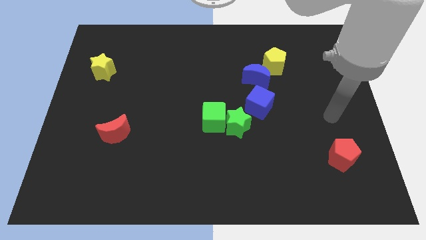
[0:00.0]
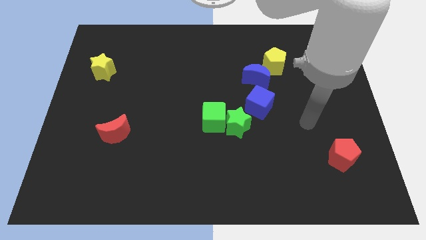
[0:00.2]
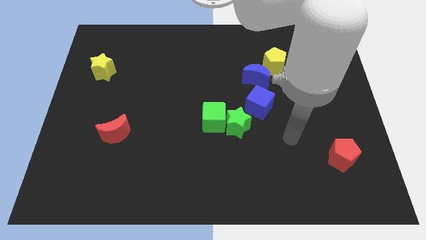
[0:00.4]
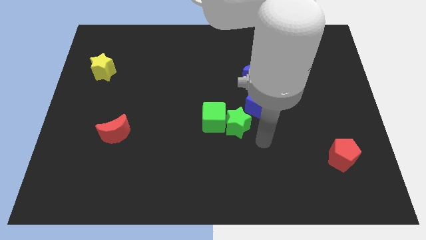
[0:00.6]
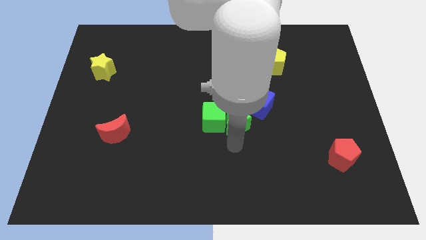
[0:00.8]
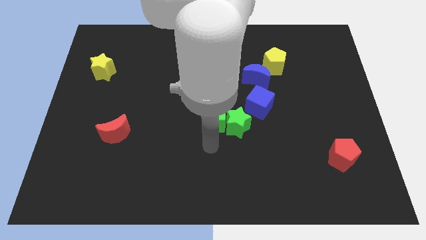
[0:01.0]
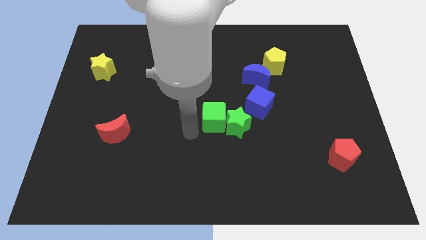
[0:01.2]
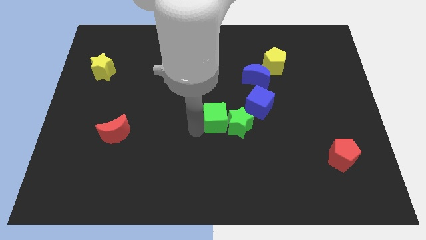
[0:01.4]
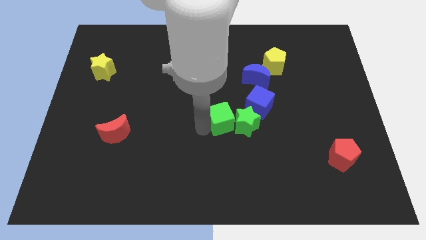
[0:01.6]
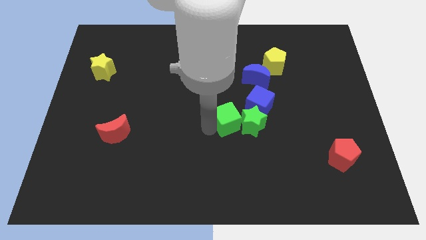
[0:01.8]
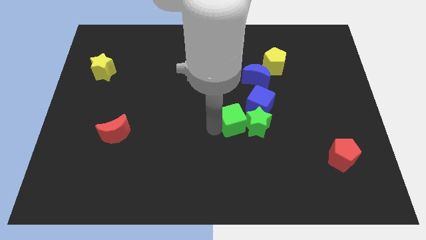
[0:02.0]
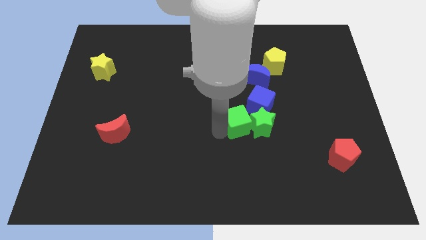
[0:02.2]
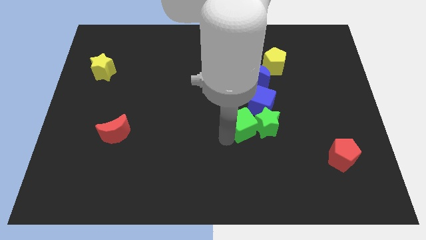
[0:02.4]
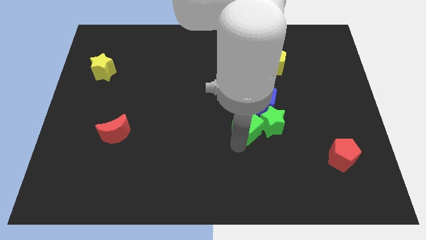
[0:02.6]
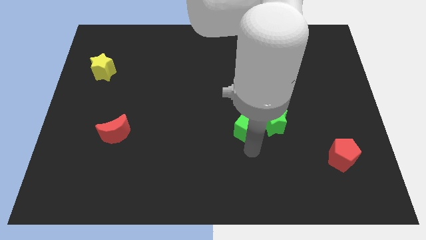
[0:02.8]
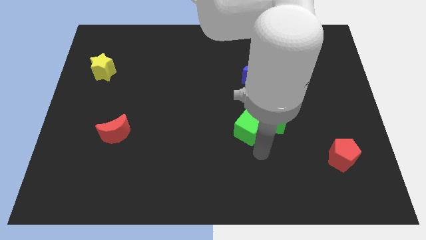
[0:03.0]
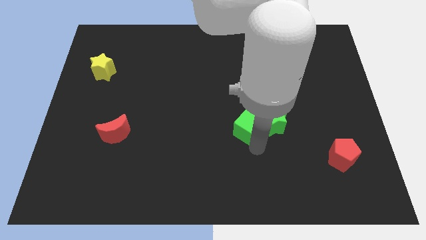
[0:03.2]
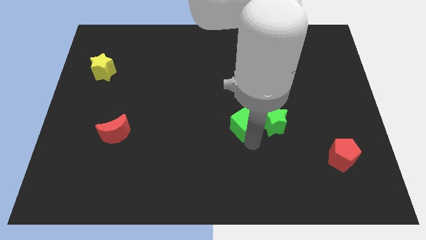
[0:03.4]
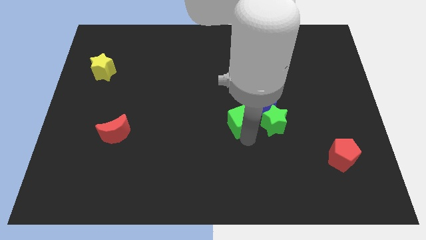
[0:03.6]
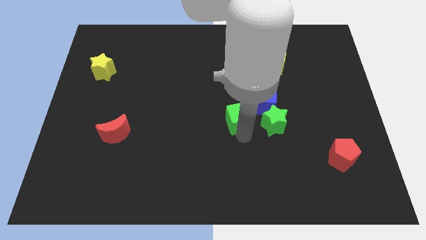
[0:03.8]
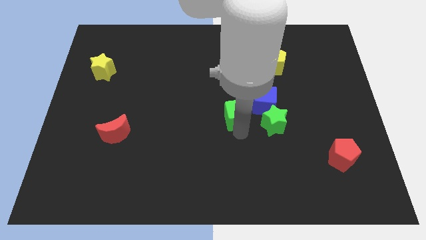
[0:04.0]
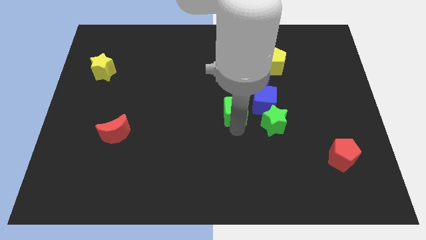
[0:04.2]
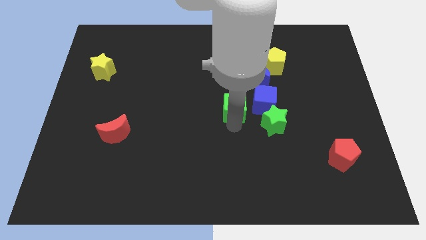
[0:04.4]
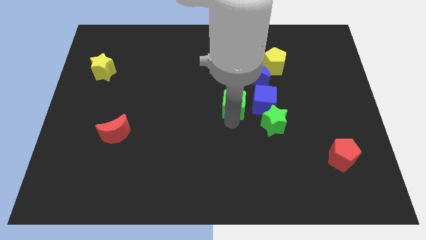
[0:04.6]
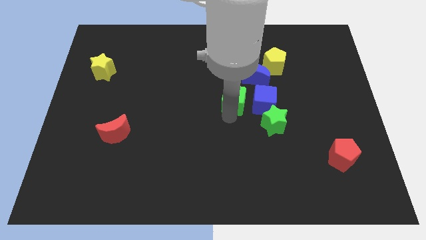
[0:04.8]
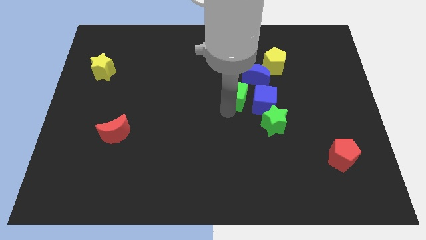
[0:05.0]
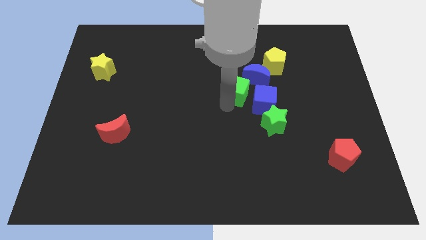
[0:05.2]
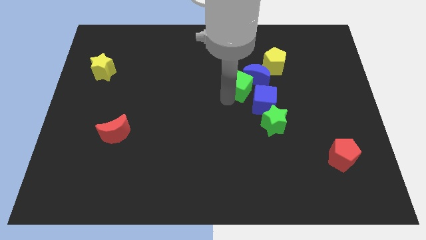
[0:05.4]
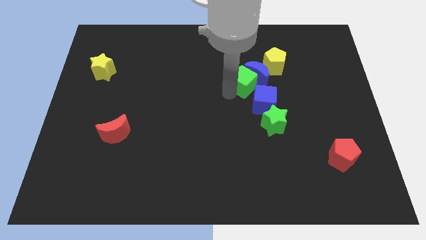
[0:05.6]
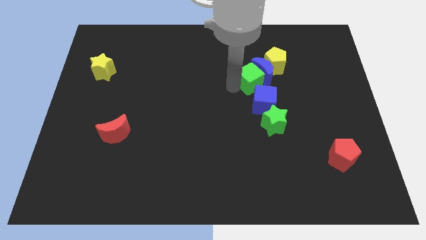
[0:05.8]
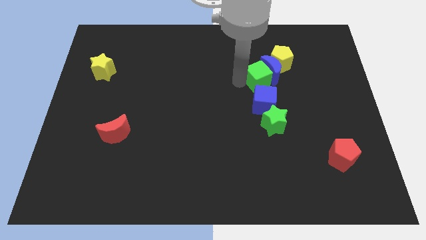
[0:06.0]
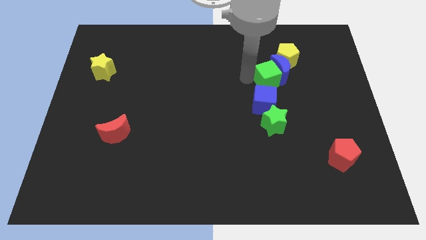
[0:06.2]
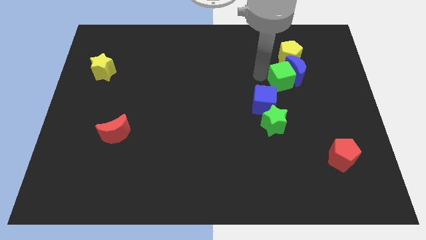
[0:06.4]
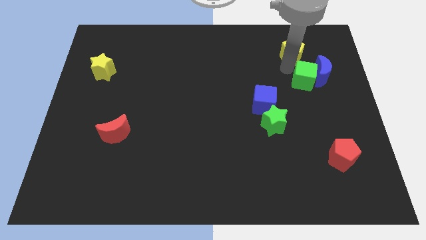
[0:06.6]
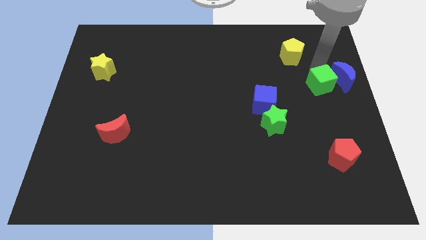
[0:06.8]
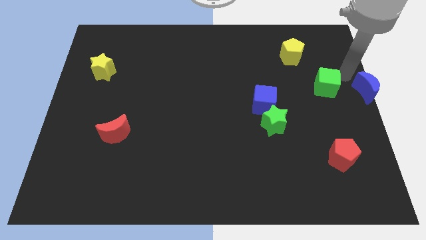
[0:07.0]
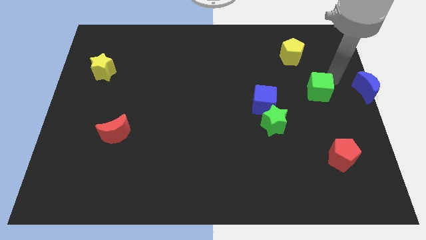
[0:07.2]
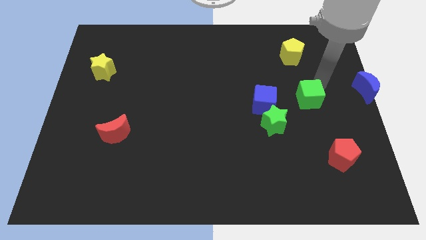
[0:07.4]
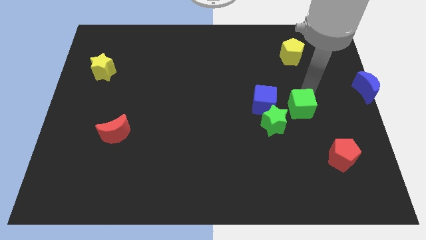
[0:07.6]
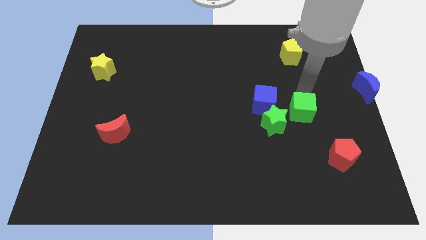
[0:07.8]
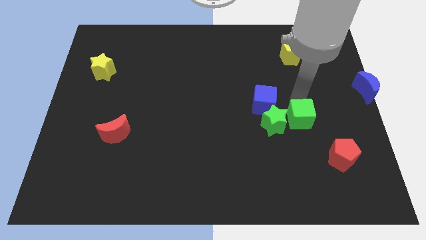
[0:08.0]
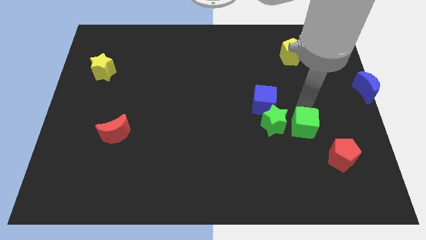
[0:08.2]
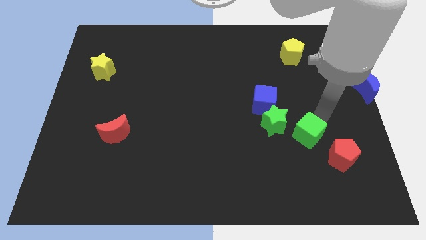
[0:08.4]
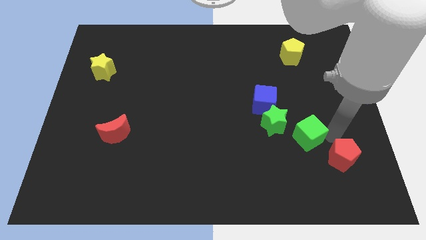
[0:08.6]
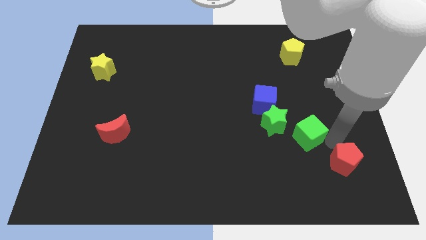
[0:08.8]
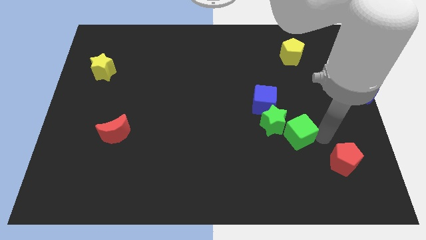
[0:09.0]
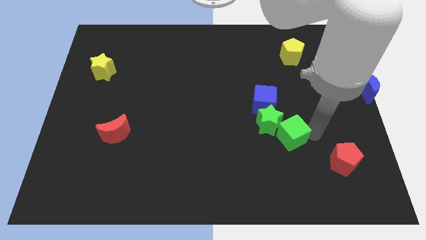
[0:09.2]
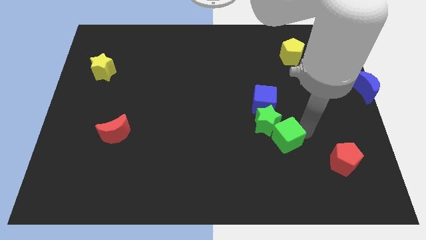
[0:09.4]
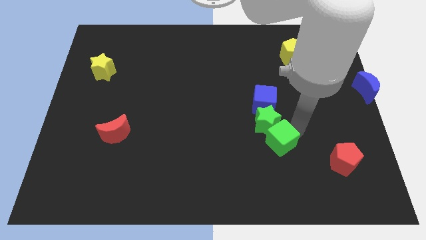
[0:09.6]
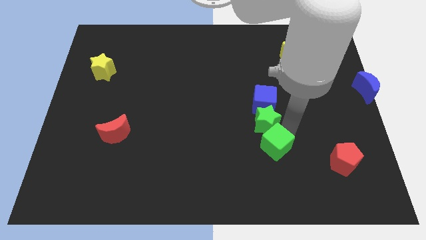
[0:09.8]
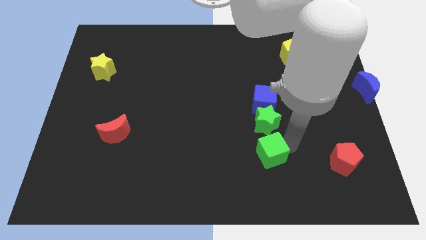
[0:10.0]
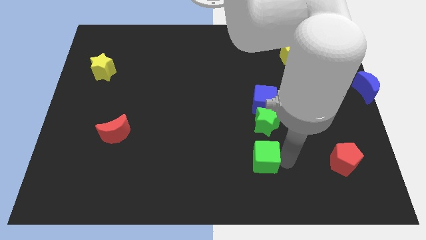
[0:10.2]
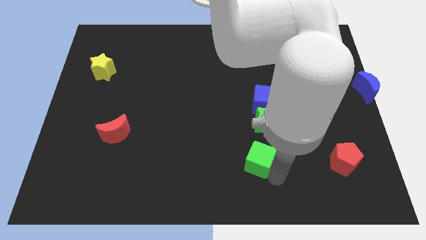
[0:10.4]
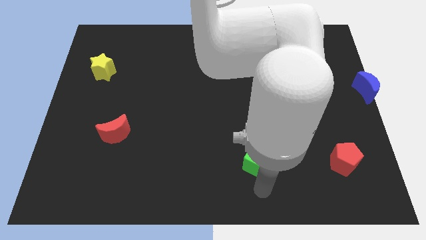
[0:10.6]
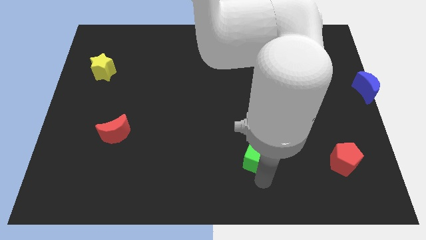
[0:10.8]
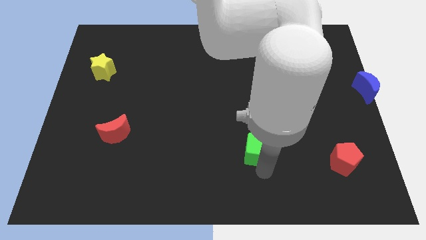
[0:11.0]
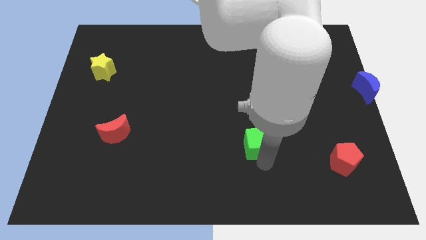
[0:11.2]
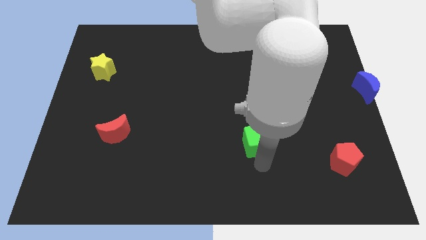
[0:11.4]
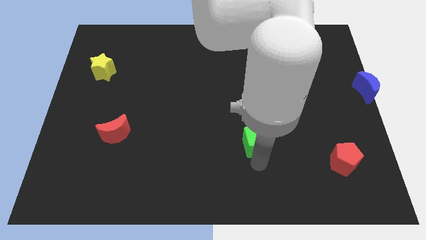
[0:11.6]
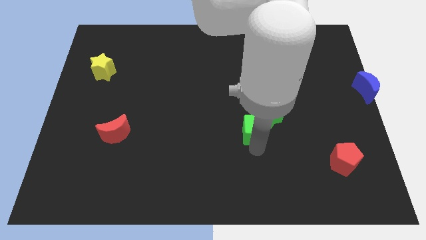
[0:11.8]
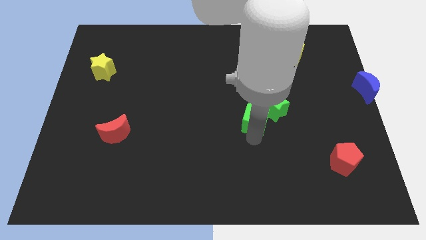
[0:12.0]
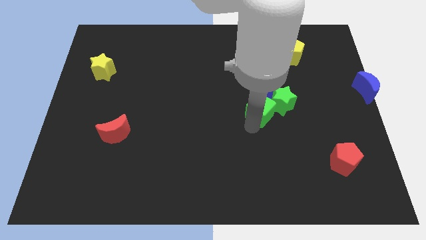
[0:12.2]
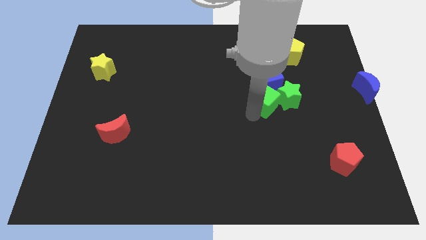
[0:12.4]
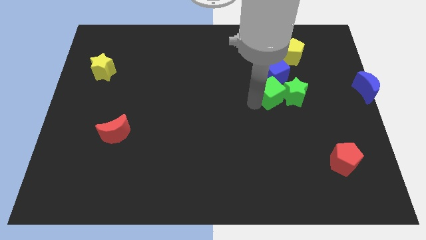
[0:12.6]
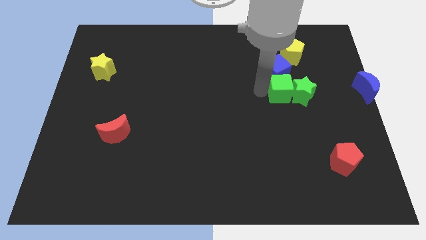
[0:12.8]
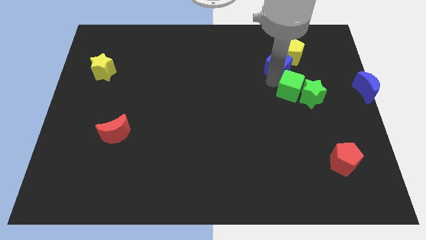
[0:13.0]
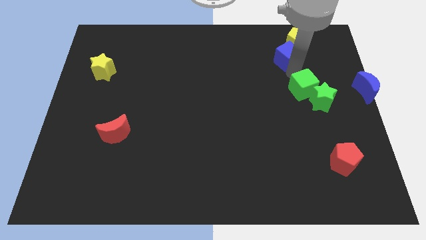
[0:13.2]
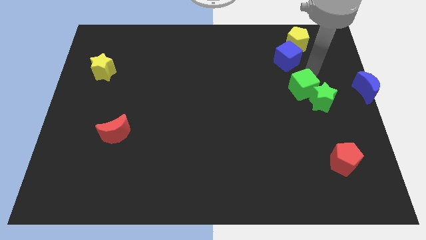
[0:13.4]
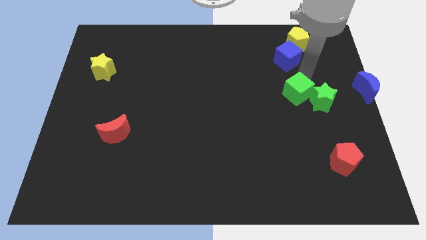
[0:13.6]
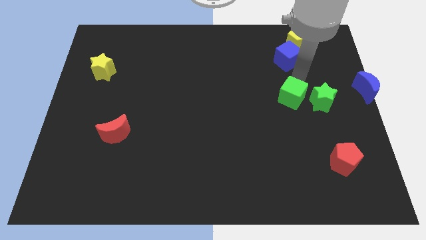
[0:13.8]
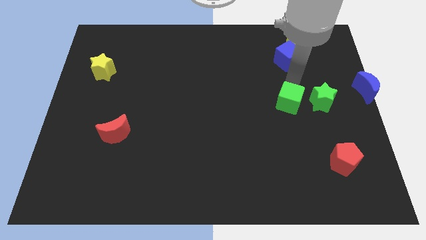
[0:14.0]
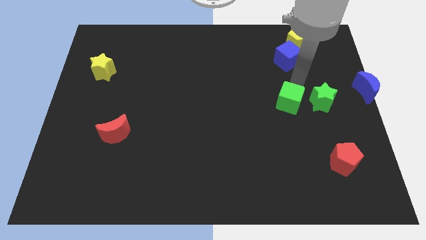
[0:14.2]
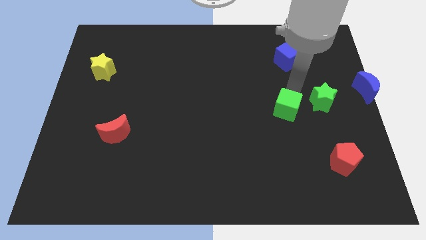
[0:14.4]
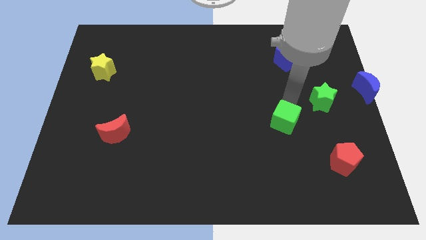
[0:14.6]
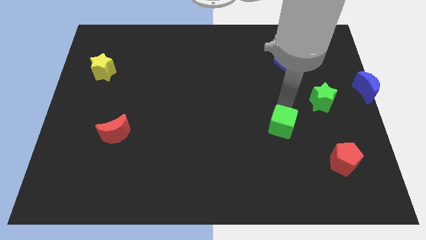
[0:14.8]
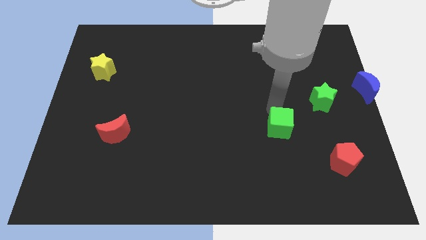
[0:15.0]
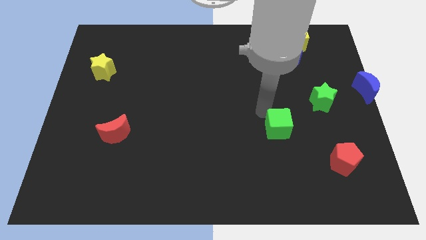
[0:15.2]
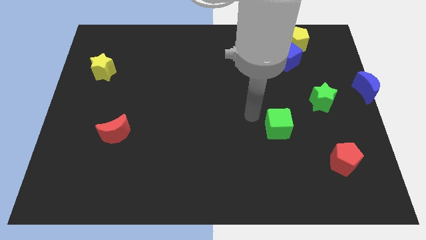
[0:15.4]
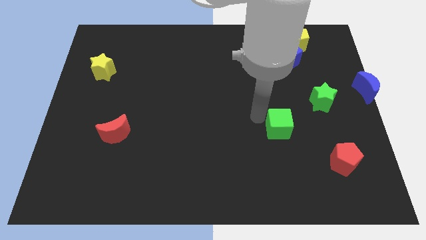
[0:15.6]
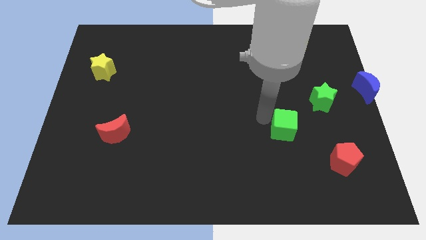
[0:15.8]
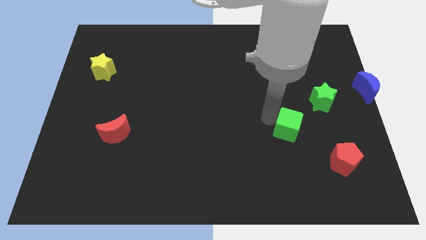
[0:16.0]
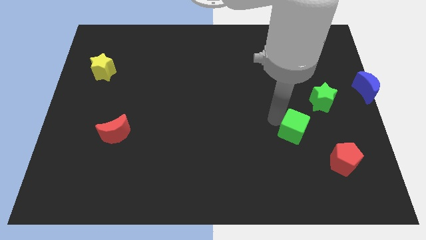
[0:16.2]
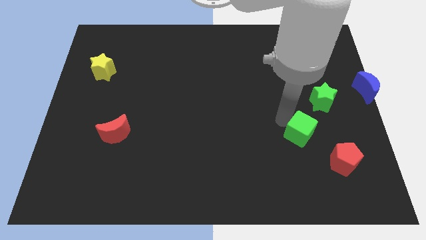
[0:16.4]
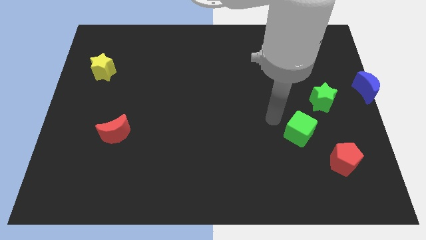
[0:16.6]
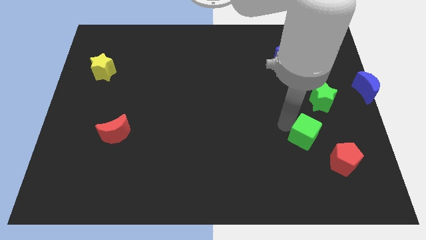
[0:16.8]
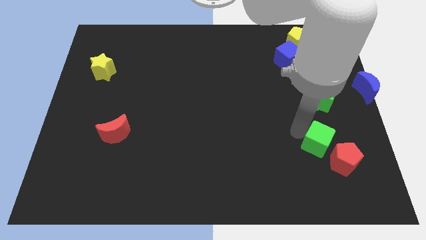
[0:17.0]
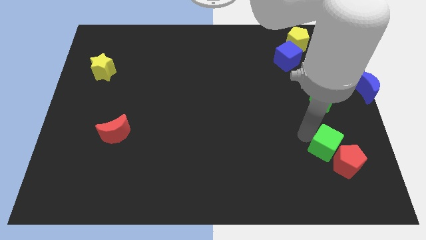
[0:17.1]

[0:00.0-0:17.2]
slide the green cube next to the red pentagon
